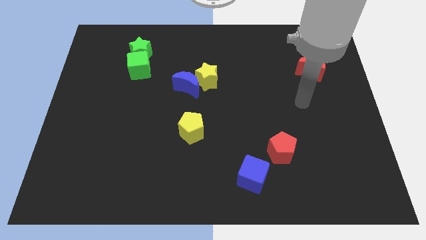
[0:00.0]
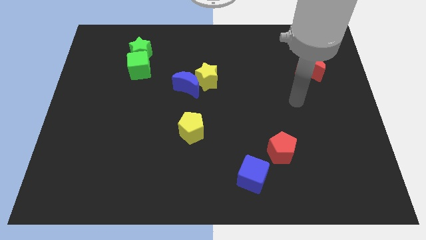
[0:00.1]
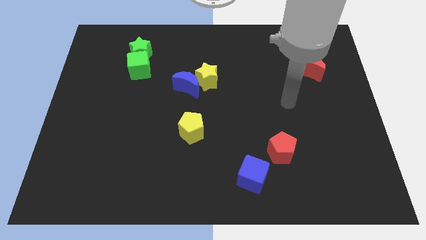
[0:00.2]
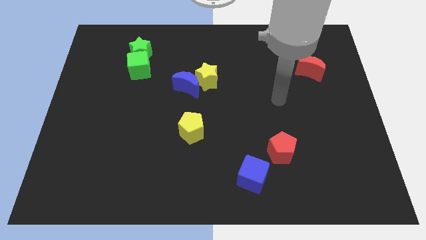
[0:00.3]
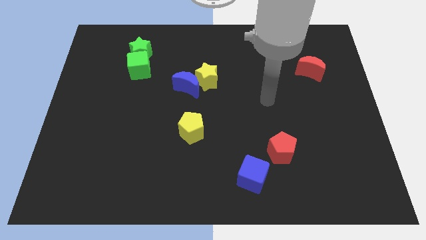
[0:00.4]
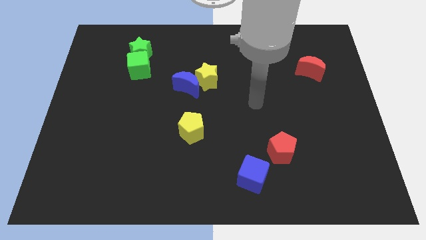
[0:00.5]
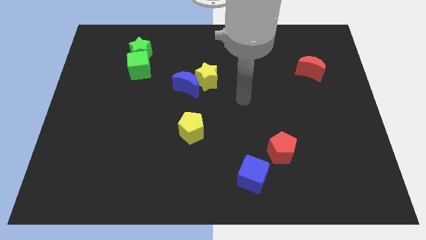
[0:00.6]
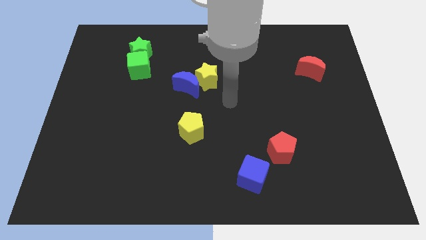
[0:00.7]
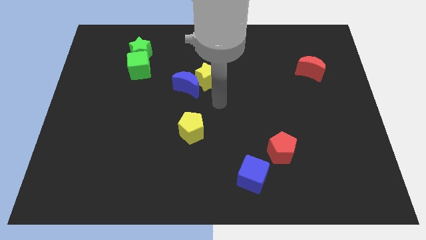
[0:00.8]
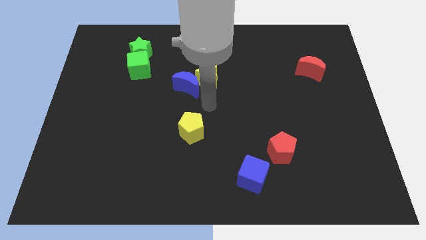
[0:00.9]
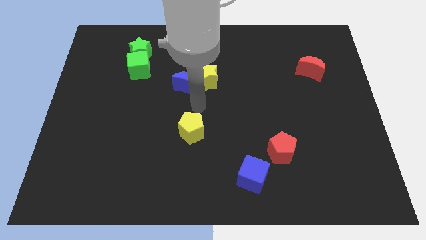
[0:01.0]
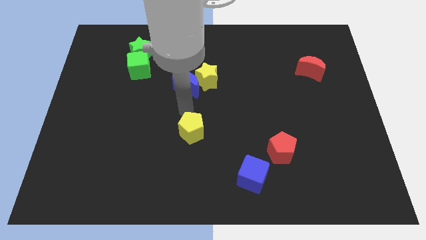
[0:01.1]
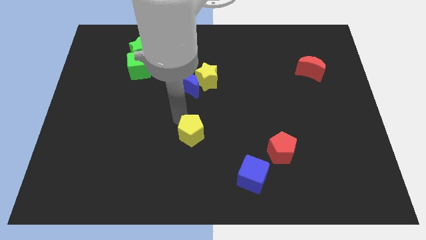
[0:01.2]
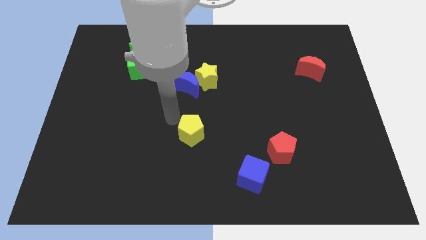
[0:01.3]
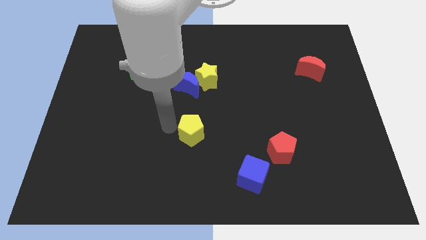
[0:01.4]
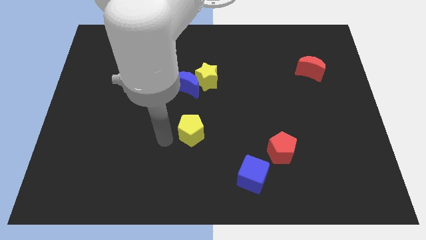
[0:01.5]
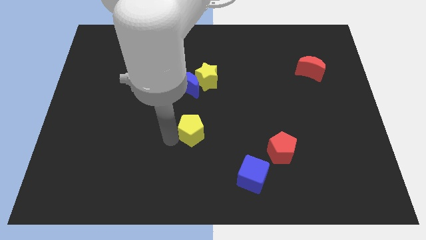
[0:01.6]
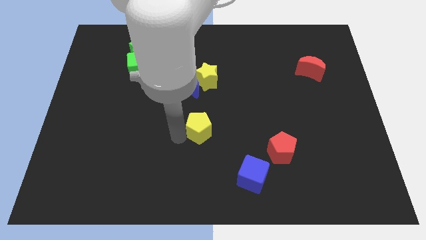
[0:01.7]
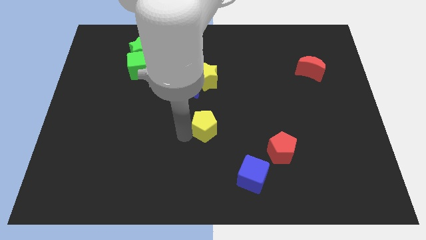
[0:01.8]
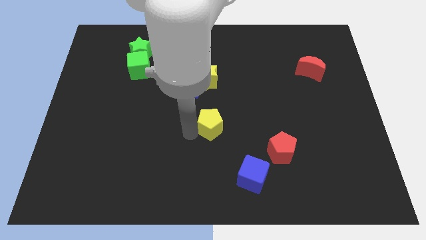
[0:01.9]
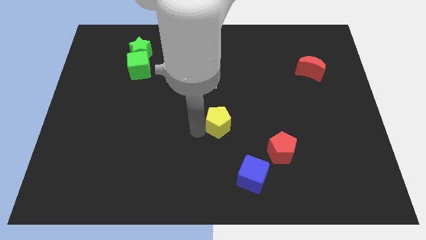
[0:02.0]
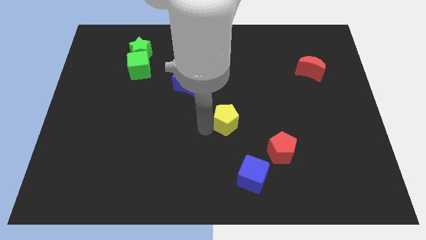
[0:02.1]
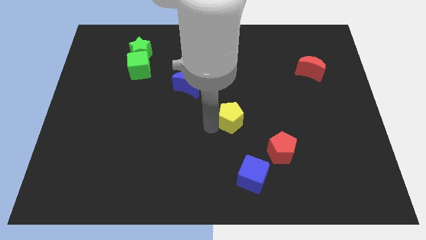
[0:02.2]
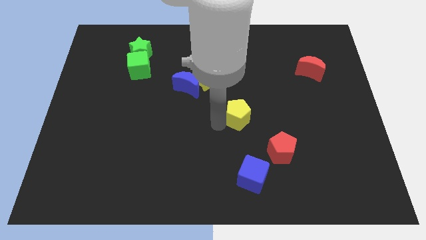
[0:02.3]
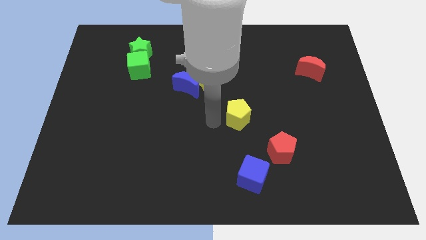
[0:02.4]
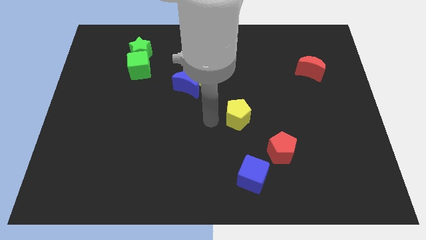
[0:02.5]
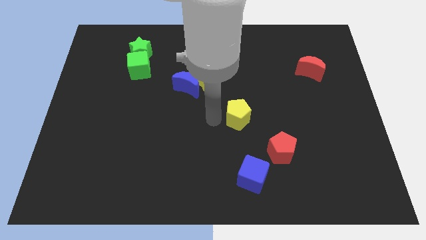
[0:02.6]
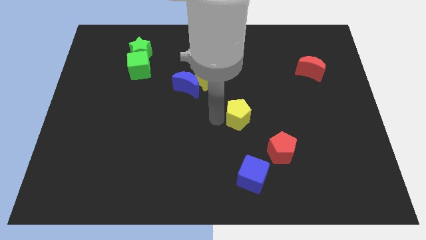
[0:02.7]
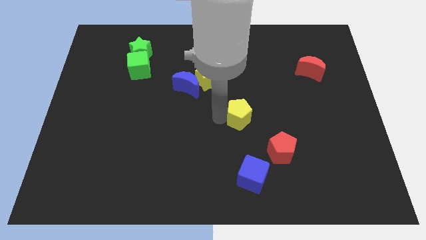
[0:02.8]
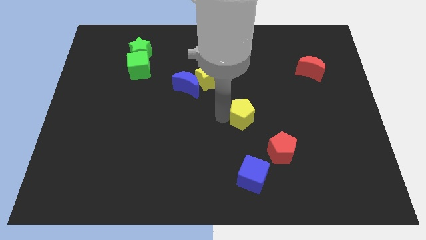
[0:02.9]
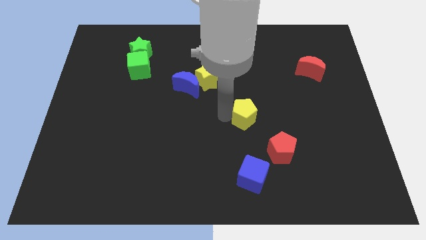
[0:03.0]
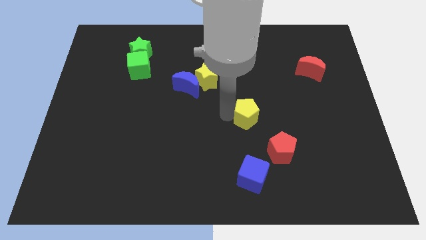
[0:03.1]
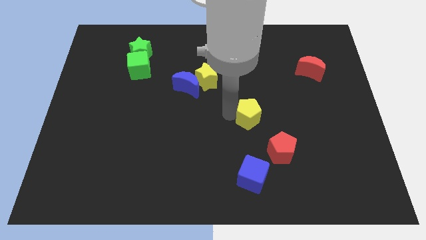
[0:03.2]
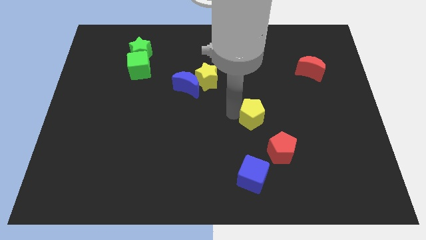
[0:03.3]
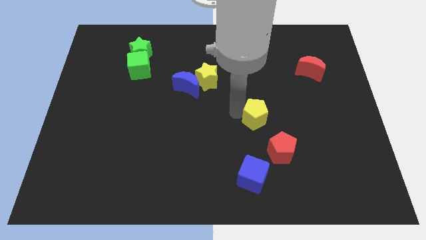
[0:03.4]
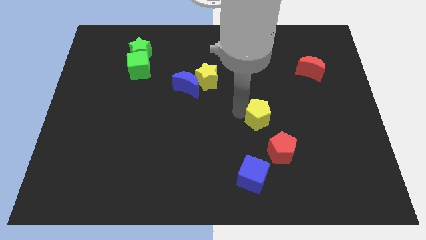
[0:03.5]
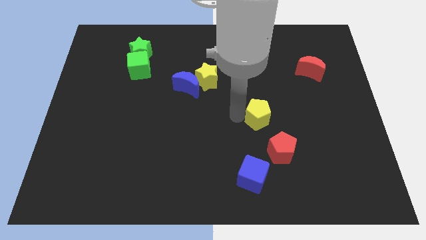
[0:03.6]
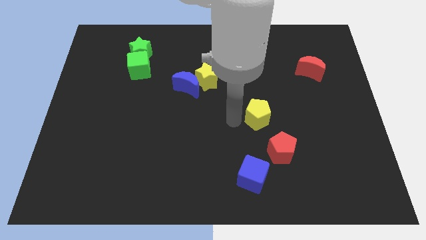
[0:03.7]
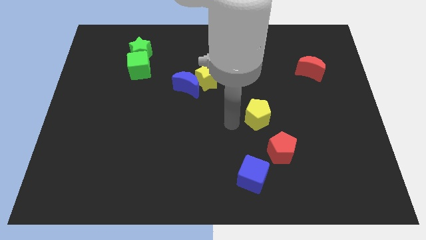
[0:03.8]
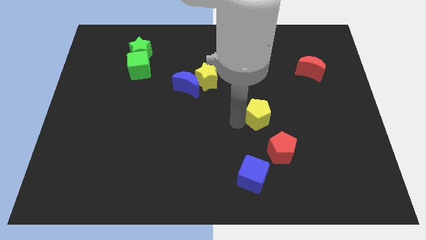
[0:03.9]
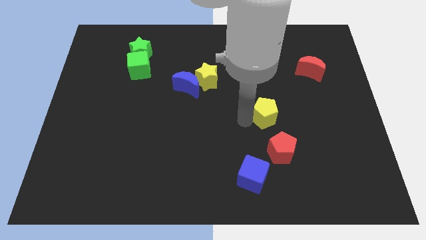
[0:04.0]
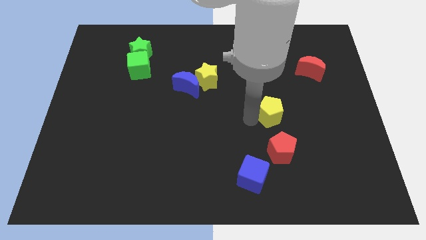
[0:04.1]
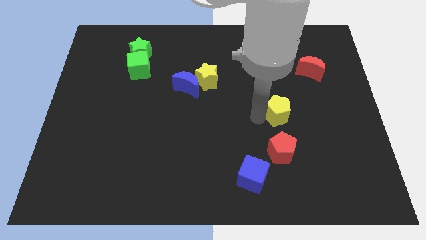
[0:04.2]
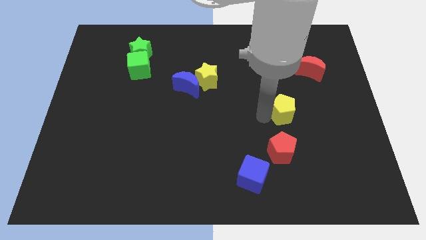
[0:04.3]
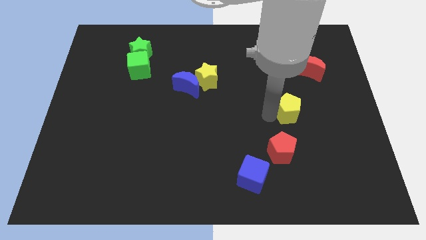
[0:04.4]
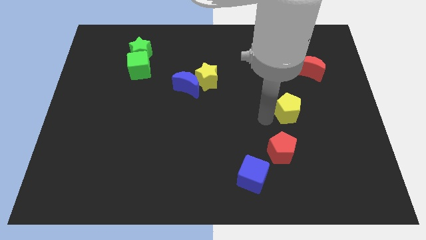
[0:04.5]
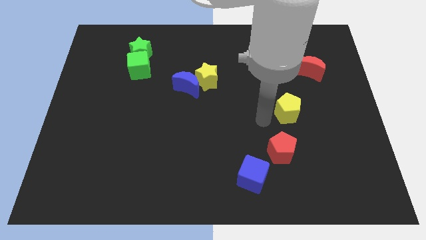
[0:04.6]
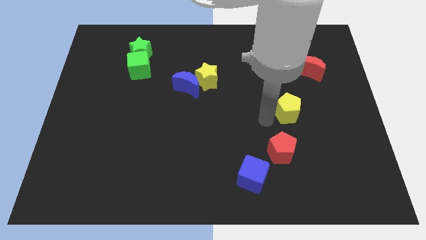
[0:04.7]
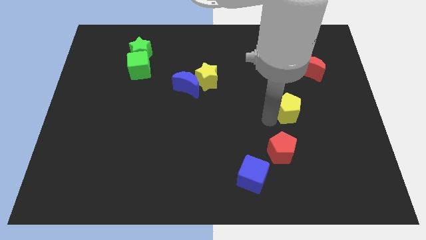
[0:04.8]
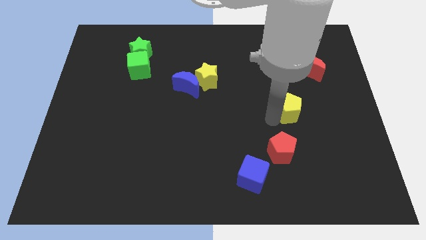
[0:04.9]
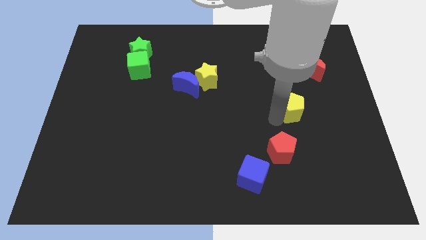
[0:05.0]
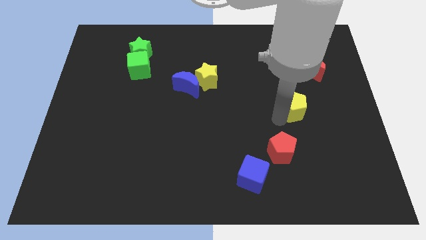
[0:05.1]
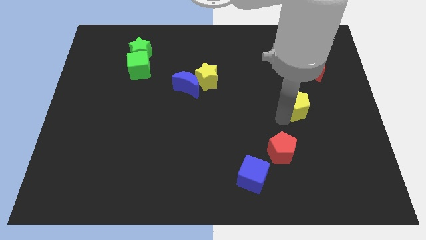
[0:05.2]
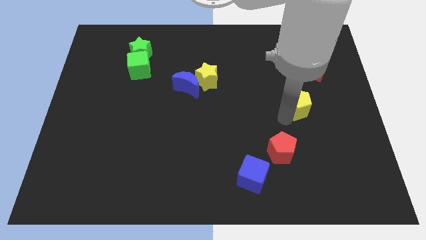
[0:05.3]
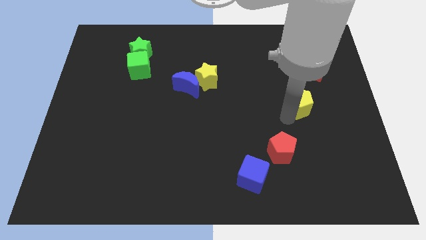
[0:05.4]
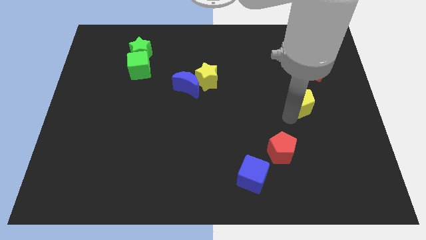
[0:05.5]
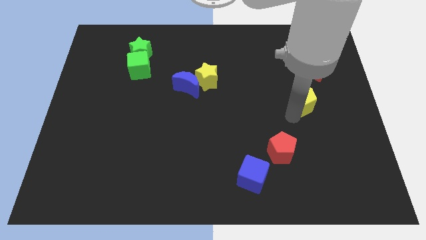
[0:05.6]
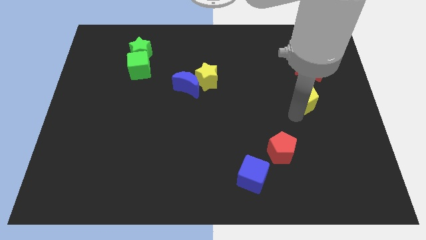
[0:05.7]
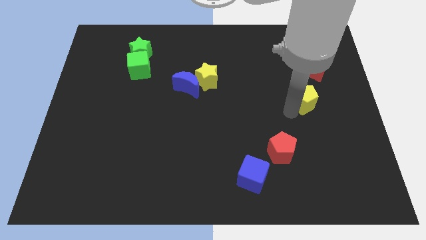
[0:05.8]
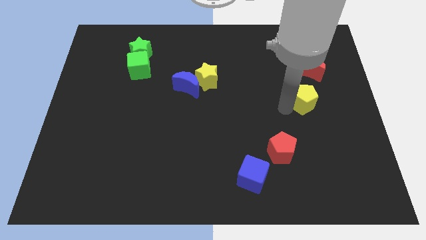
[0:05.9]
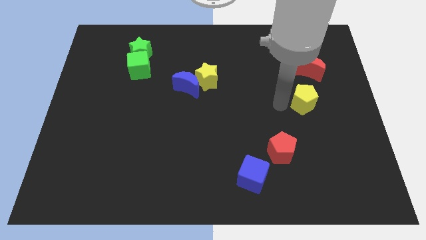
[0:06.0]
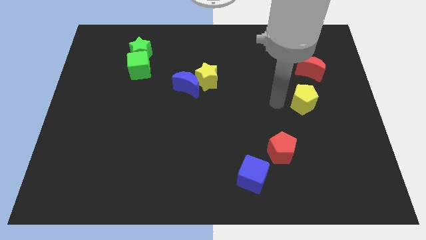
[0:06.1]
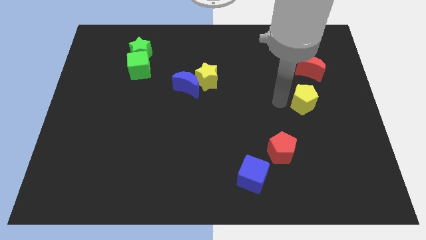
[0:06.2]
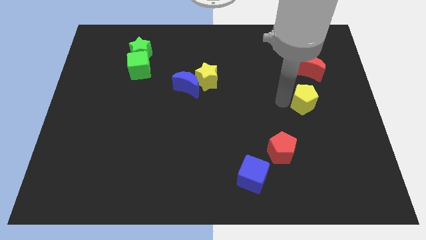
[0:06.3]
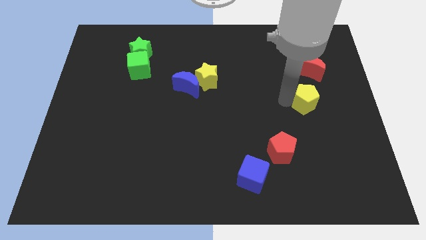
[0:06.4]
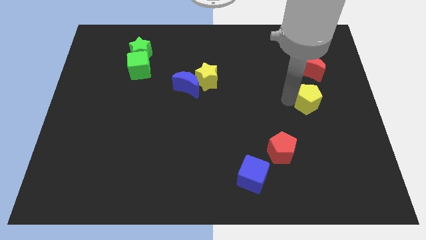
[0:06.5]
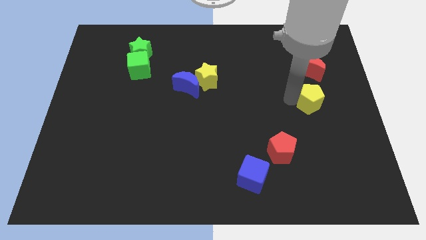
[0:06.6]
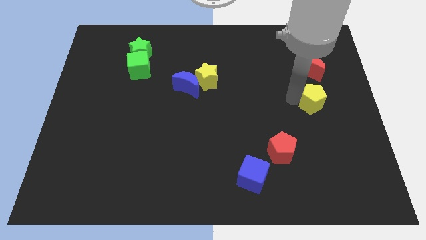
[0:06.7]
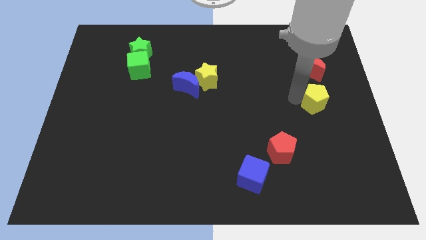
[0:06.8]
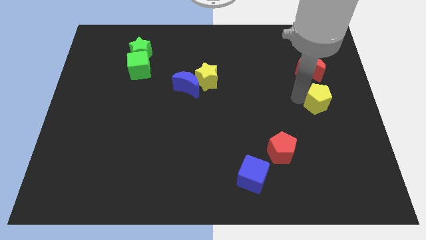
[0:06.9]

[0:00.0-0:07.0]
push the yellow pentagon to the right side of the board

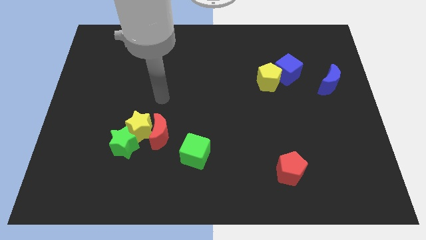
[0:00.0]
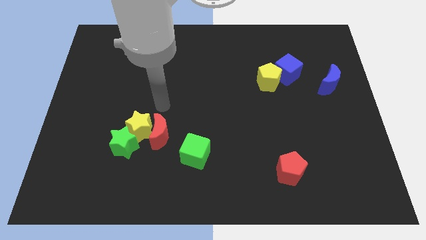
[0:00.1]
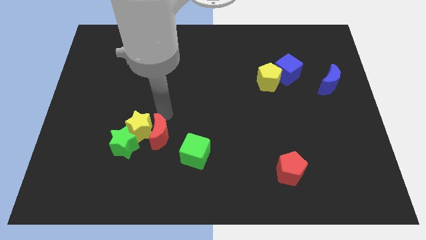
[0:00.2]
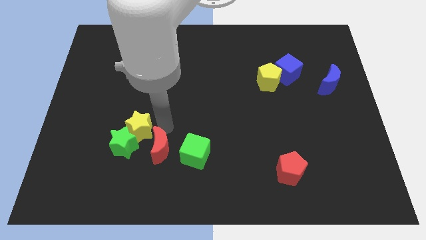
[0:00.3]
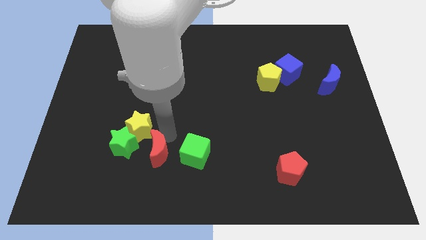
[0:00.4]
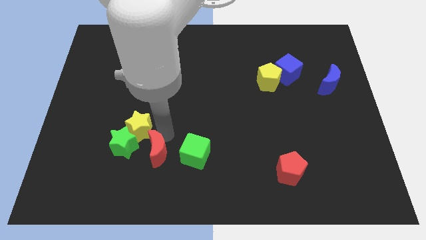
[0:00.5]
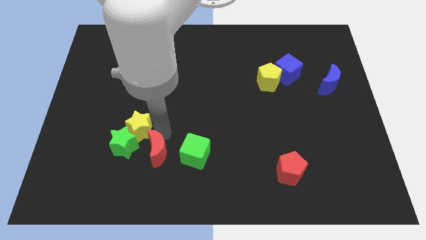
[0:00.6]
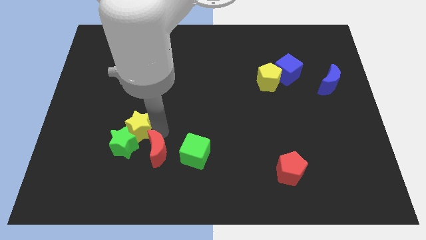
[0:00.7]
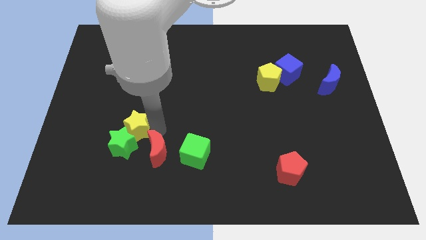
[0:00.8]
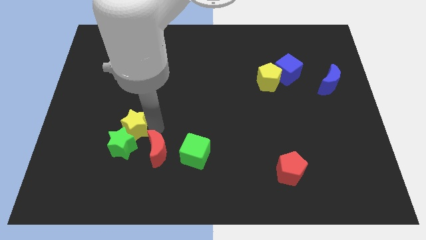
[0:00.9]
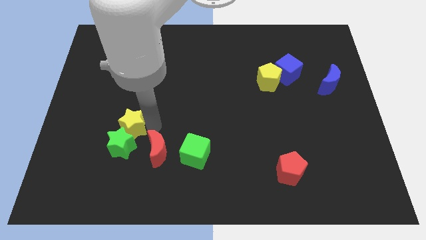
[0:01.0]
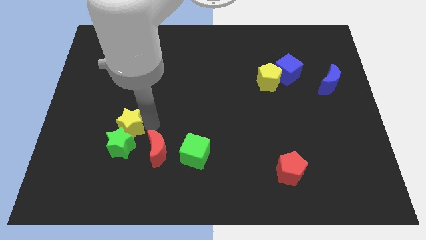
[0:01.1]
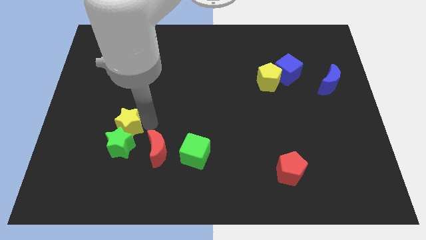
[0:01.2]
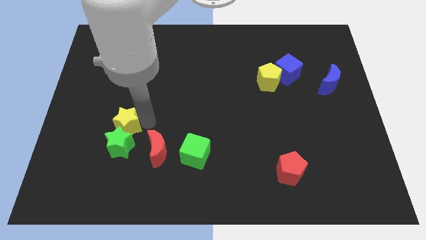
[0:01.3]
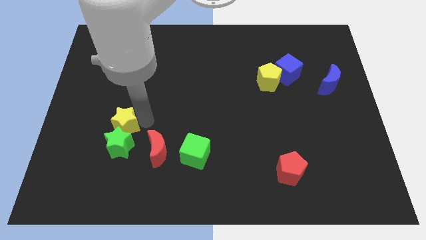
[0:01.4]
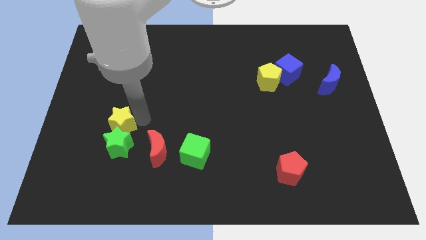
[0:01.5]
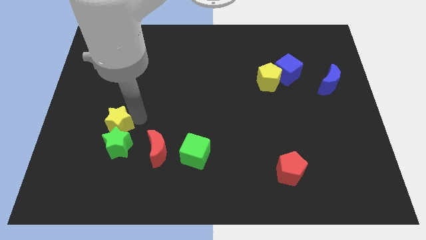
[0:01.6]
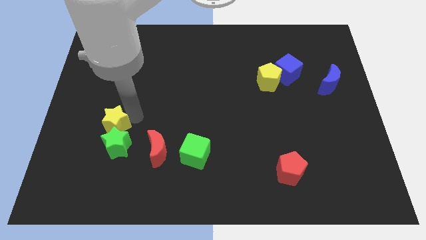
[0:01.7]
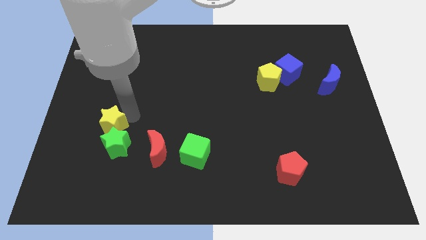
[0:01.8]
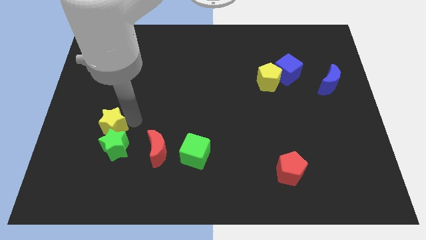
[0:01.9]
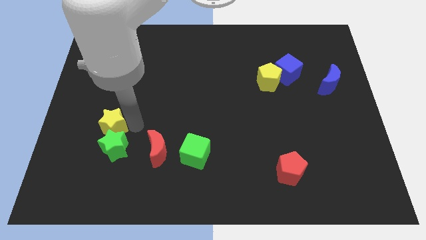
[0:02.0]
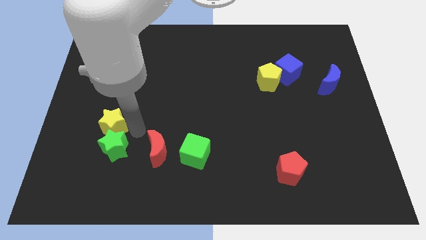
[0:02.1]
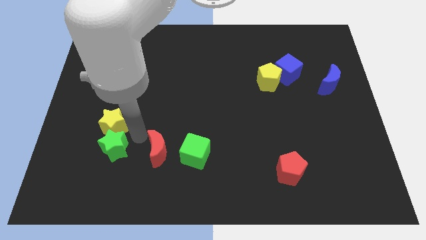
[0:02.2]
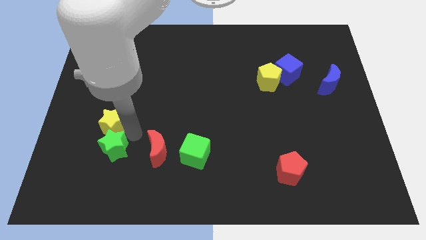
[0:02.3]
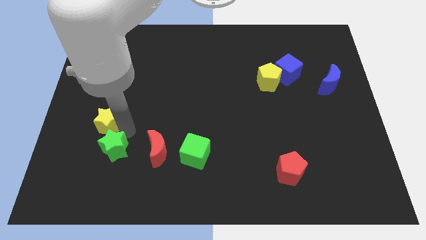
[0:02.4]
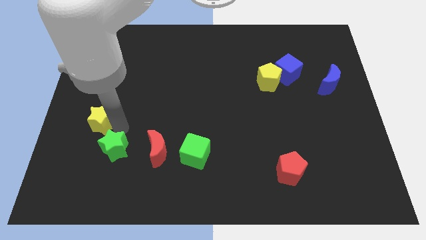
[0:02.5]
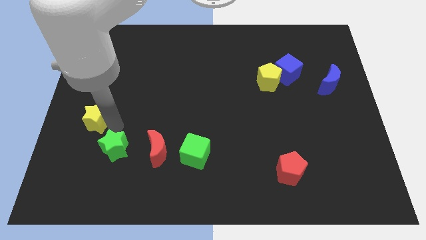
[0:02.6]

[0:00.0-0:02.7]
slide the yellow star to the left side
